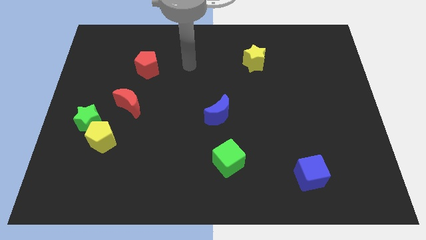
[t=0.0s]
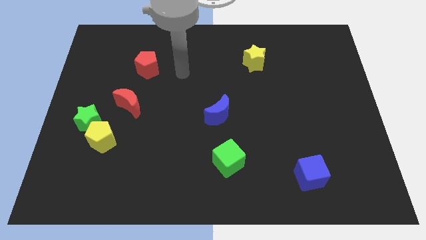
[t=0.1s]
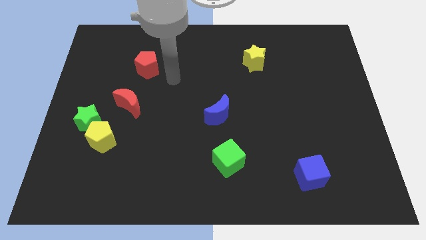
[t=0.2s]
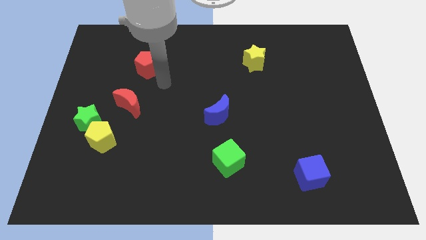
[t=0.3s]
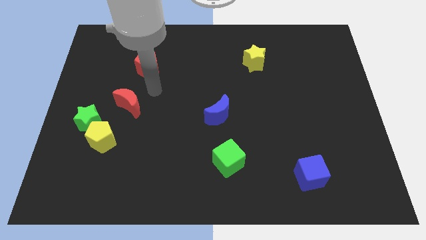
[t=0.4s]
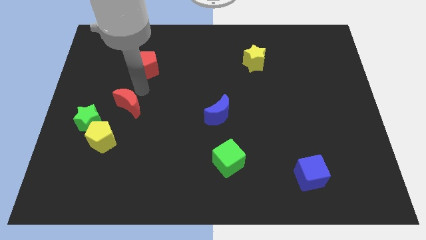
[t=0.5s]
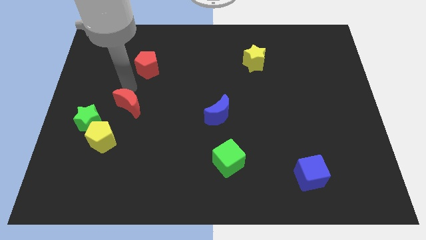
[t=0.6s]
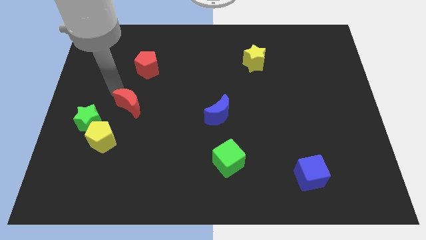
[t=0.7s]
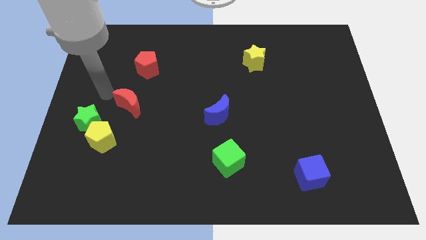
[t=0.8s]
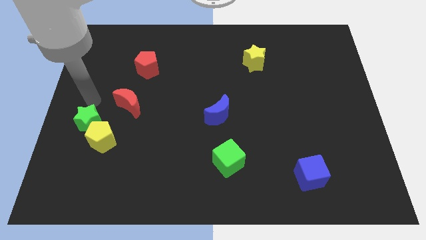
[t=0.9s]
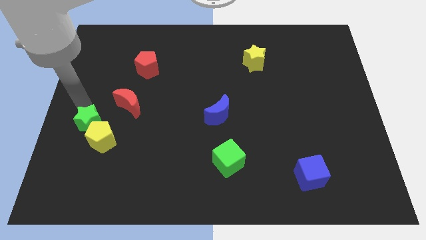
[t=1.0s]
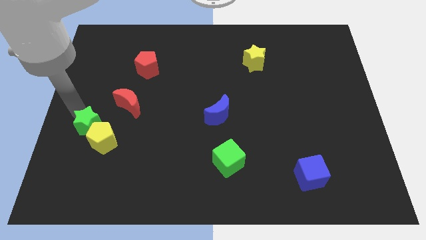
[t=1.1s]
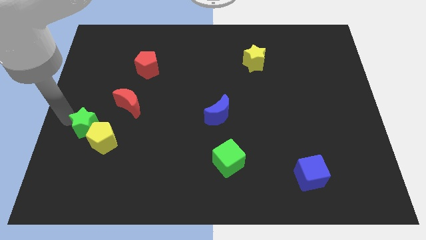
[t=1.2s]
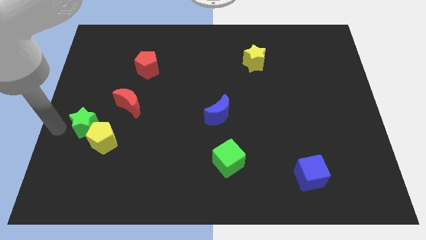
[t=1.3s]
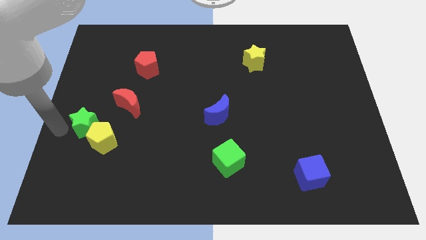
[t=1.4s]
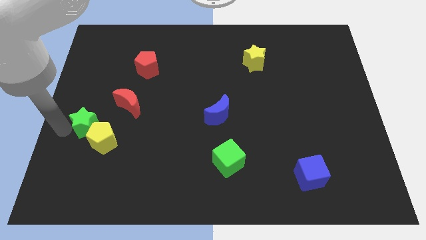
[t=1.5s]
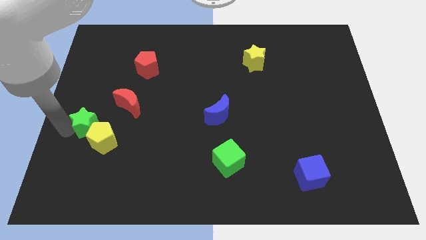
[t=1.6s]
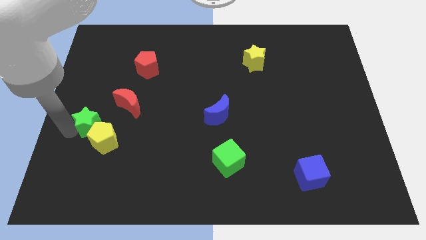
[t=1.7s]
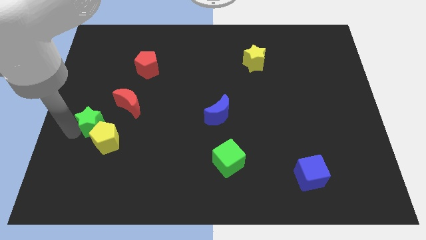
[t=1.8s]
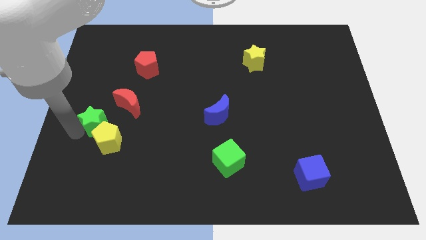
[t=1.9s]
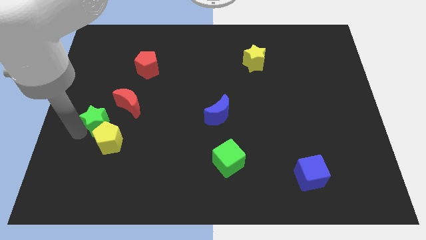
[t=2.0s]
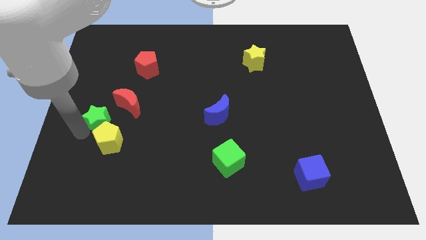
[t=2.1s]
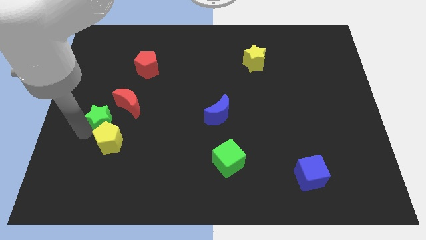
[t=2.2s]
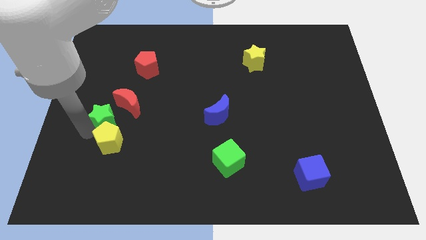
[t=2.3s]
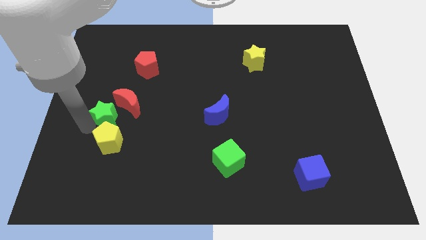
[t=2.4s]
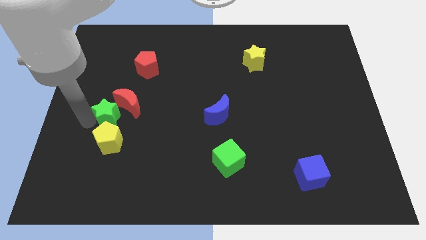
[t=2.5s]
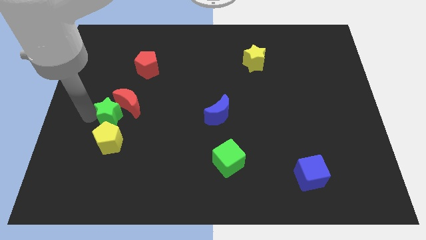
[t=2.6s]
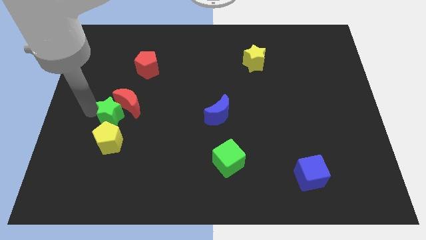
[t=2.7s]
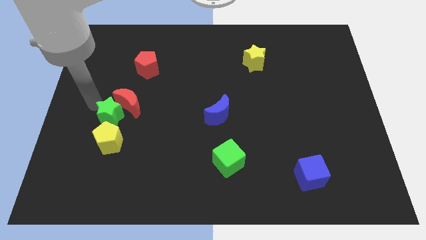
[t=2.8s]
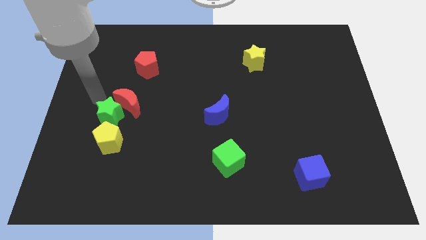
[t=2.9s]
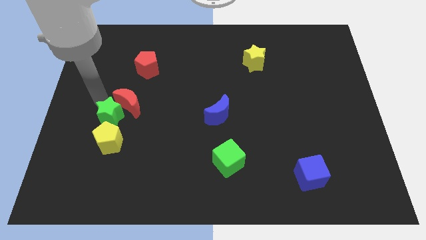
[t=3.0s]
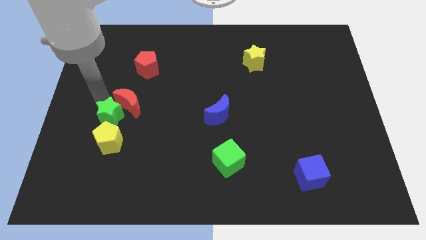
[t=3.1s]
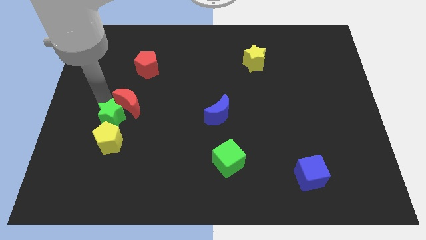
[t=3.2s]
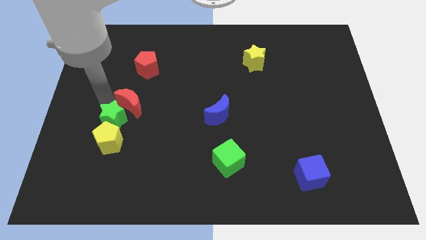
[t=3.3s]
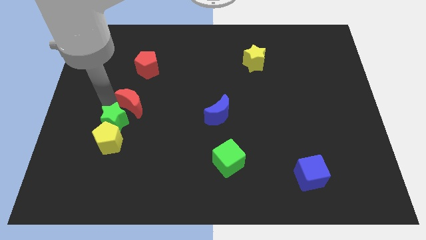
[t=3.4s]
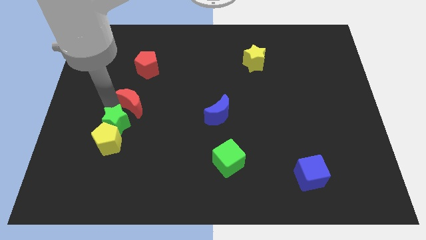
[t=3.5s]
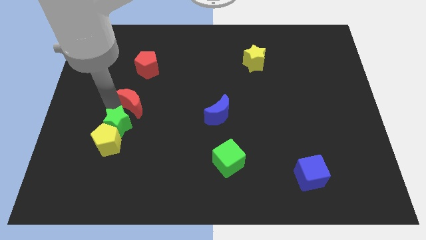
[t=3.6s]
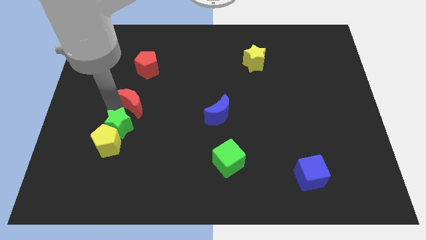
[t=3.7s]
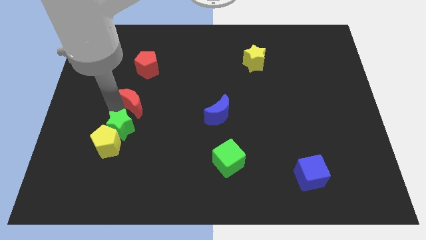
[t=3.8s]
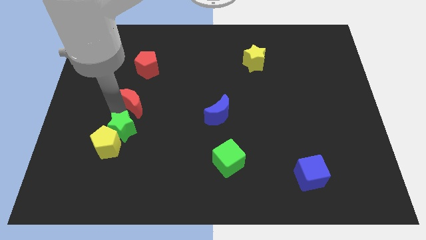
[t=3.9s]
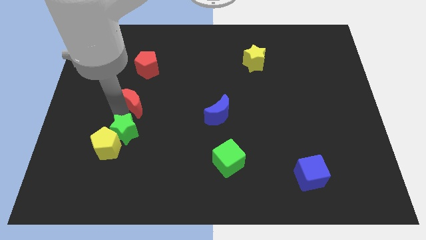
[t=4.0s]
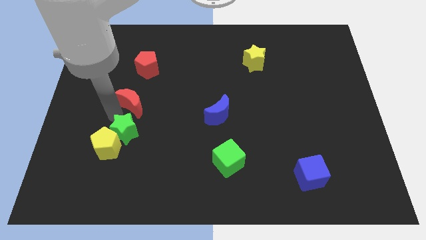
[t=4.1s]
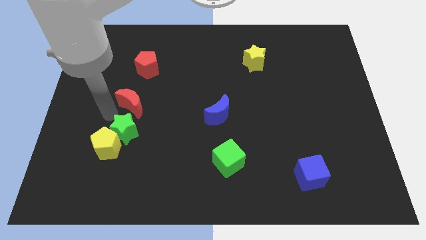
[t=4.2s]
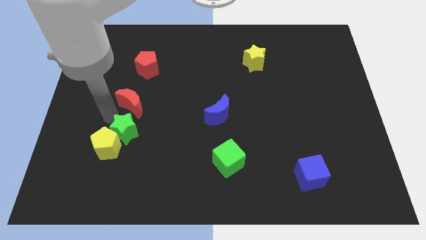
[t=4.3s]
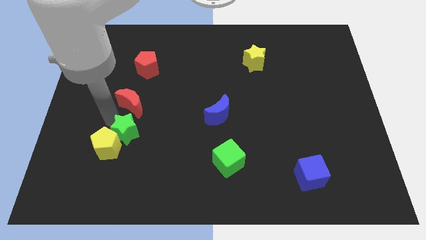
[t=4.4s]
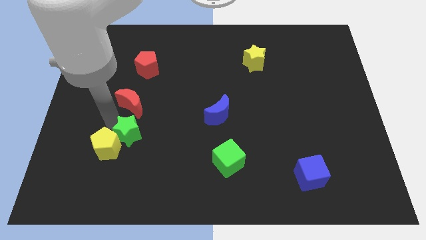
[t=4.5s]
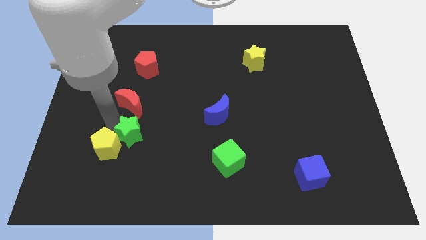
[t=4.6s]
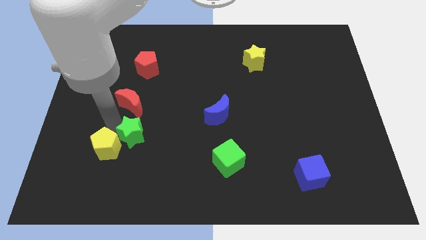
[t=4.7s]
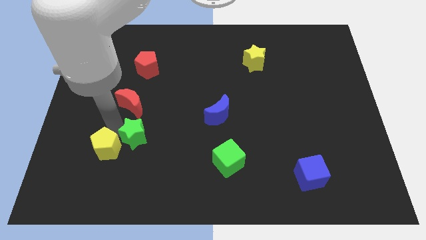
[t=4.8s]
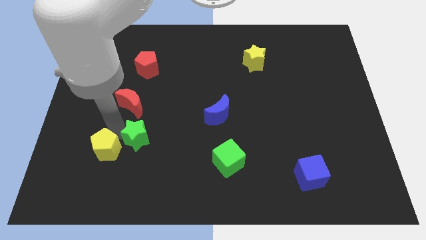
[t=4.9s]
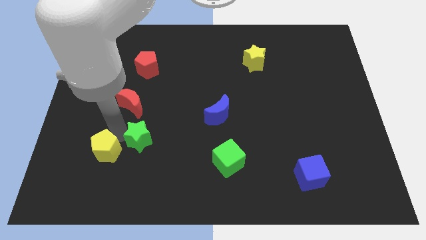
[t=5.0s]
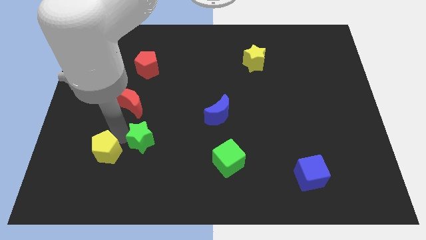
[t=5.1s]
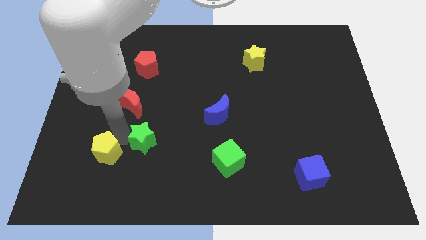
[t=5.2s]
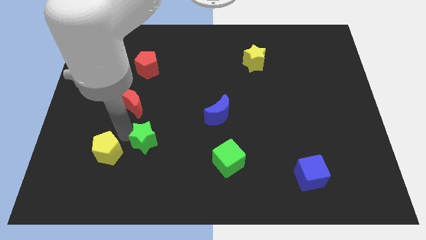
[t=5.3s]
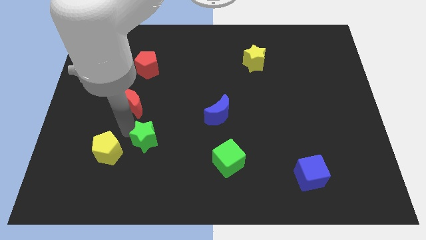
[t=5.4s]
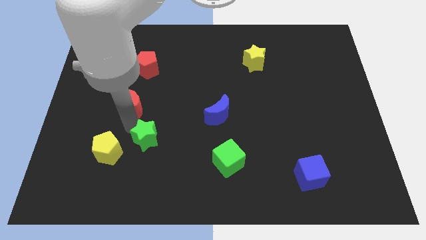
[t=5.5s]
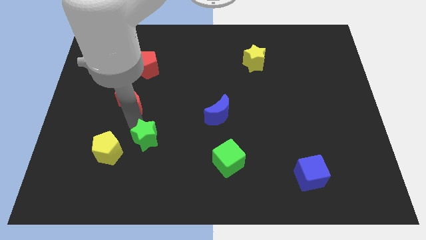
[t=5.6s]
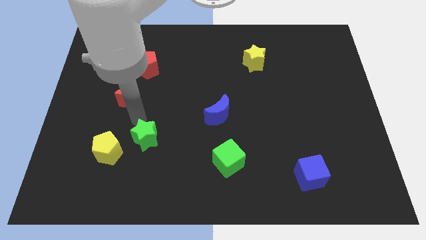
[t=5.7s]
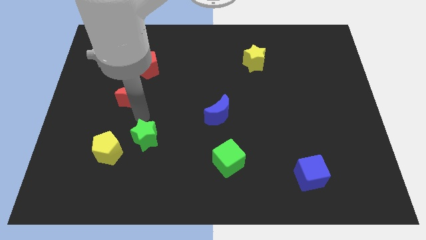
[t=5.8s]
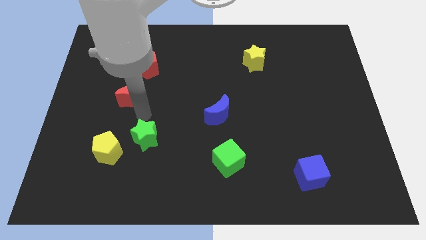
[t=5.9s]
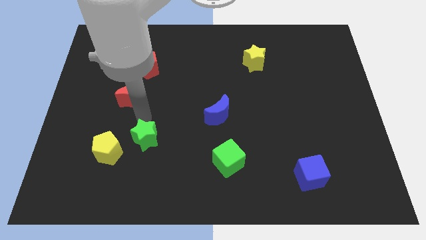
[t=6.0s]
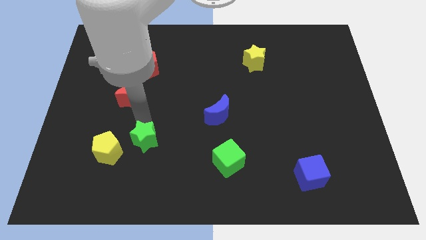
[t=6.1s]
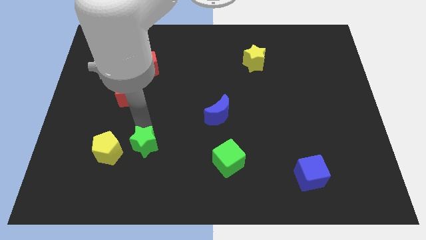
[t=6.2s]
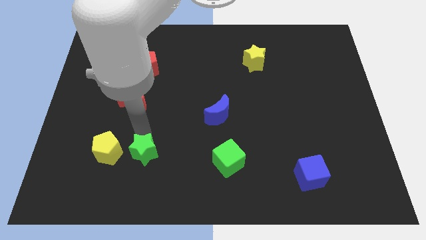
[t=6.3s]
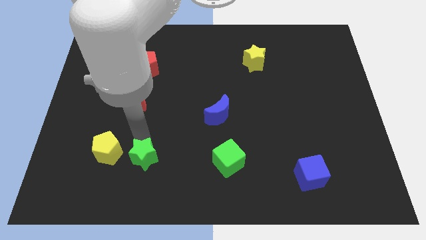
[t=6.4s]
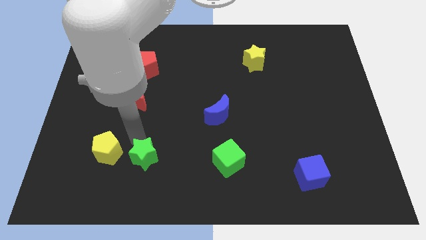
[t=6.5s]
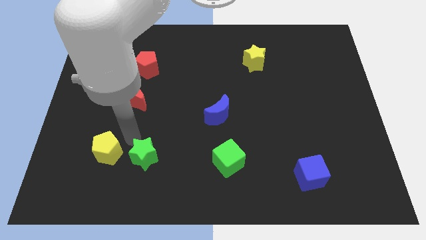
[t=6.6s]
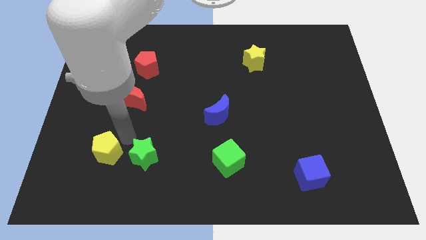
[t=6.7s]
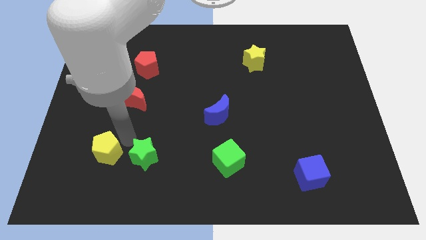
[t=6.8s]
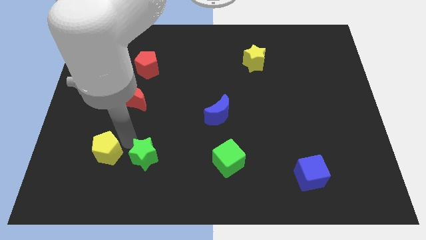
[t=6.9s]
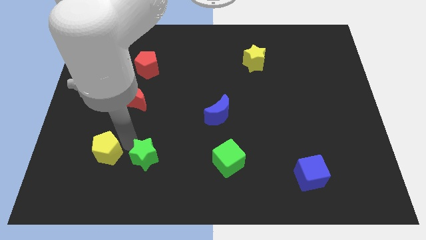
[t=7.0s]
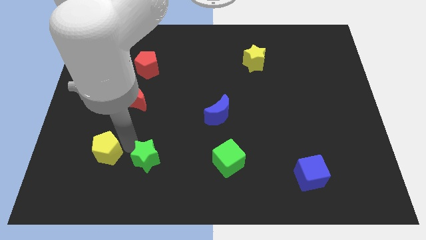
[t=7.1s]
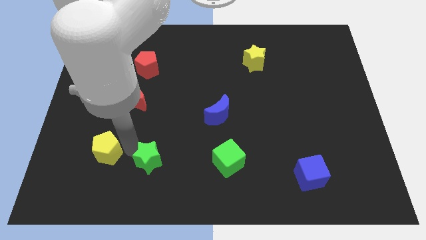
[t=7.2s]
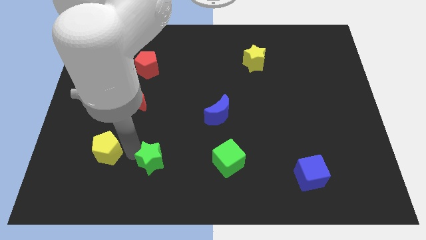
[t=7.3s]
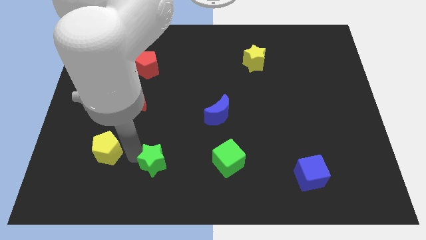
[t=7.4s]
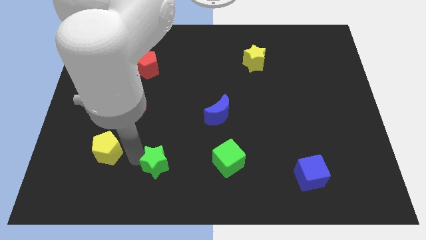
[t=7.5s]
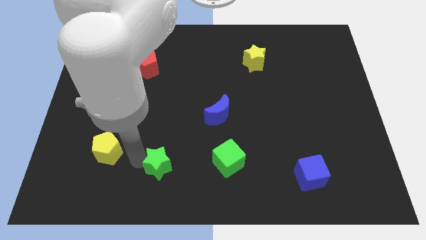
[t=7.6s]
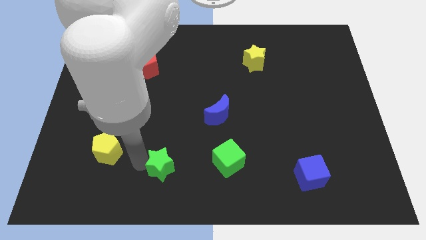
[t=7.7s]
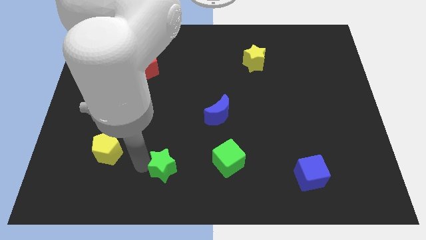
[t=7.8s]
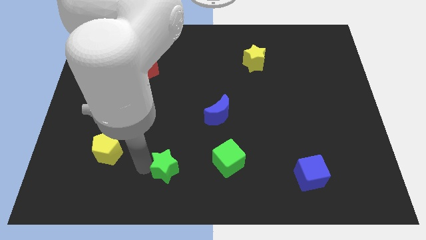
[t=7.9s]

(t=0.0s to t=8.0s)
slide the green star to the bottom side
